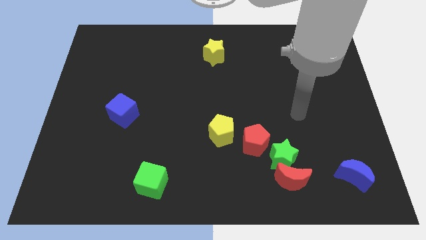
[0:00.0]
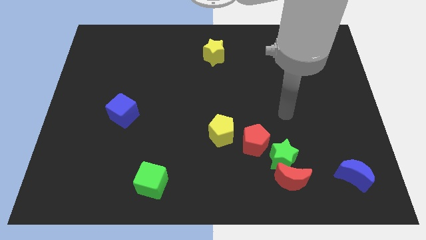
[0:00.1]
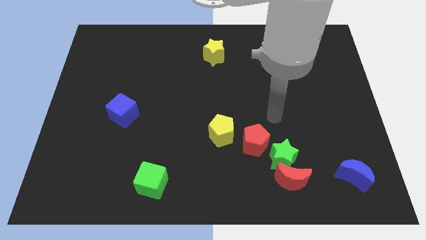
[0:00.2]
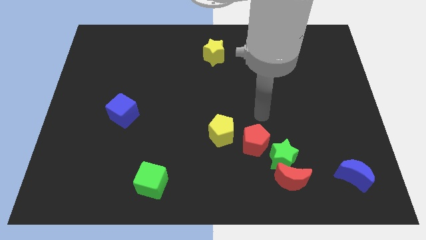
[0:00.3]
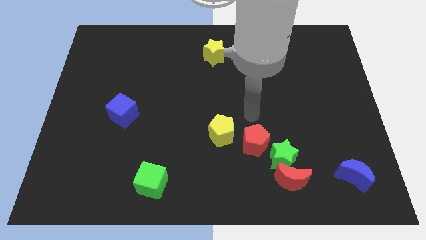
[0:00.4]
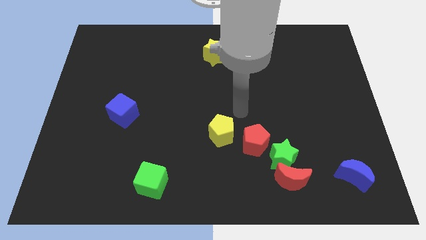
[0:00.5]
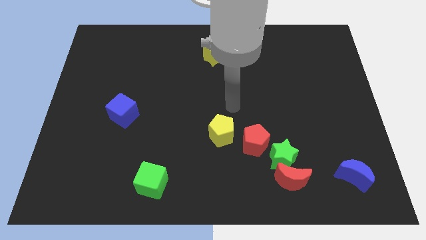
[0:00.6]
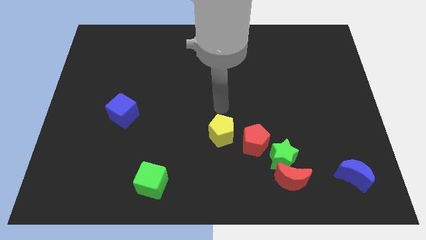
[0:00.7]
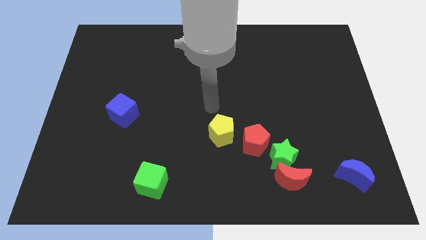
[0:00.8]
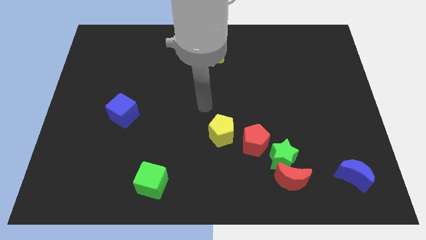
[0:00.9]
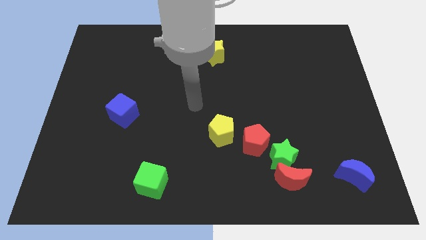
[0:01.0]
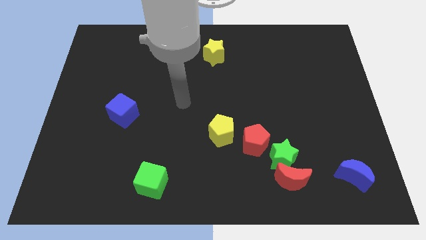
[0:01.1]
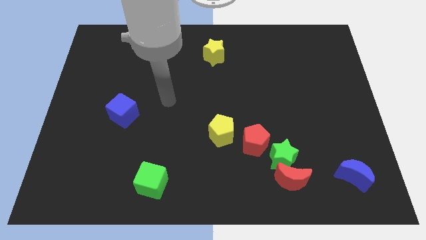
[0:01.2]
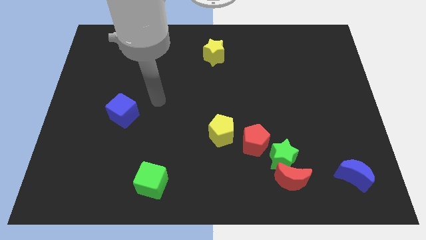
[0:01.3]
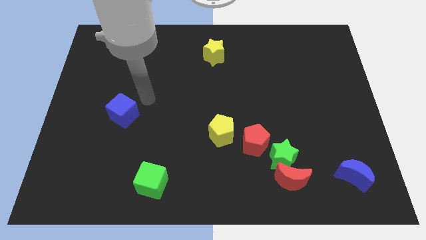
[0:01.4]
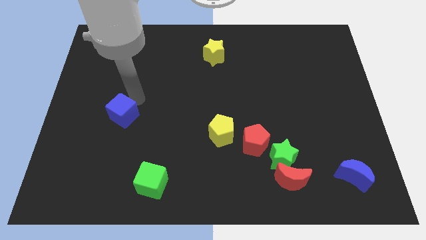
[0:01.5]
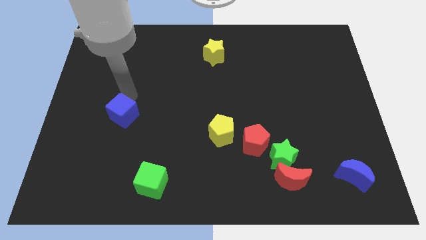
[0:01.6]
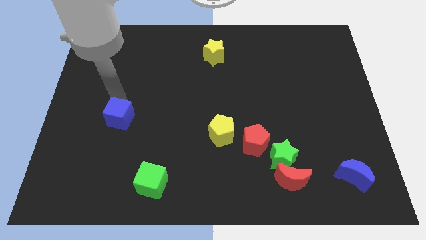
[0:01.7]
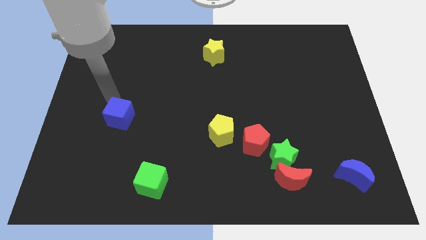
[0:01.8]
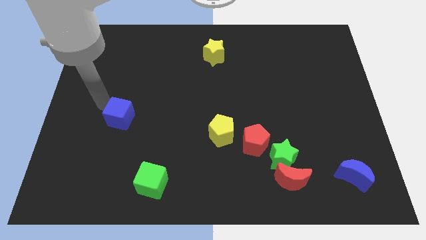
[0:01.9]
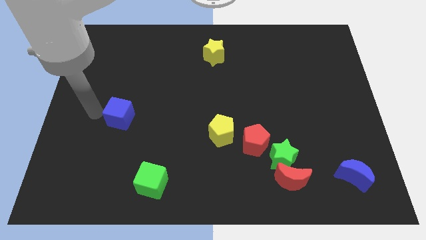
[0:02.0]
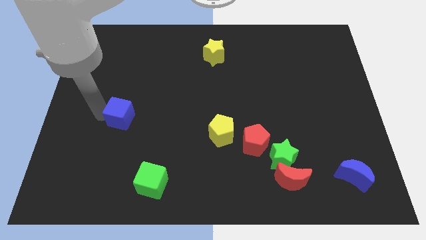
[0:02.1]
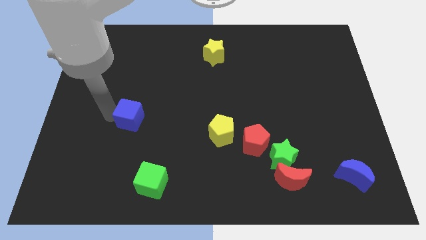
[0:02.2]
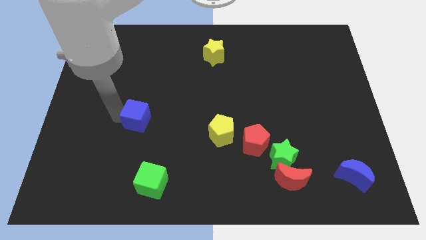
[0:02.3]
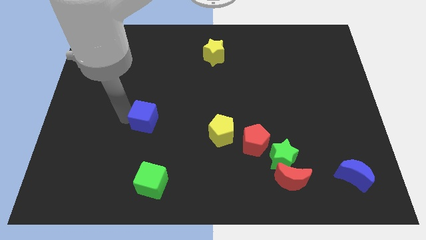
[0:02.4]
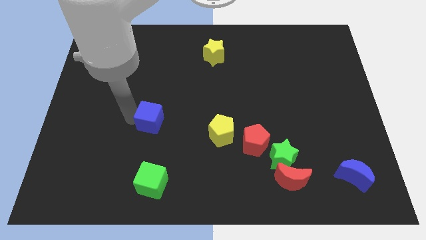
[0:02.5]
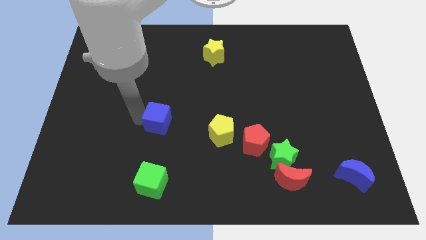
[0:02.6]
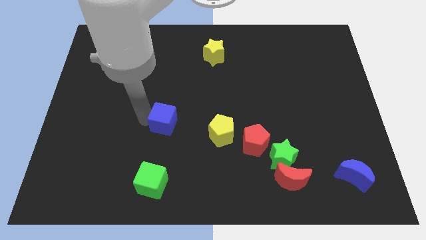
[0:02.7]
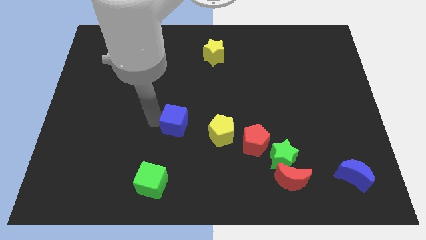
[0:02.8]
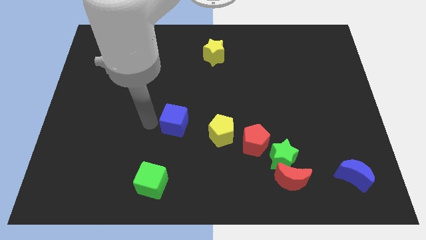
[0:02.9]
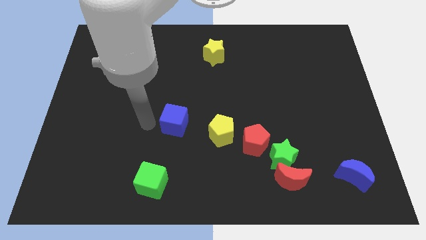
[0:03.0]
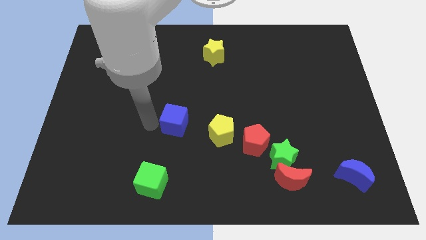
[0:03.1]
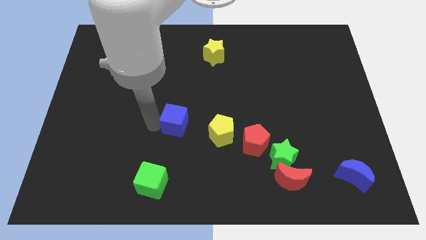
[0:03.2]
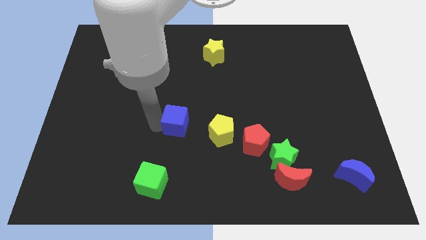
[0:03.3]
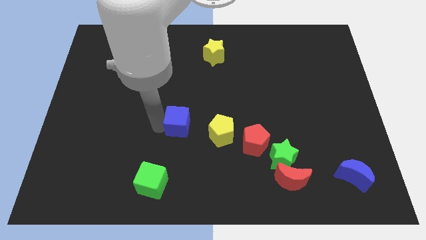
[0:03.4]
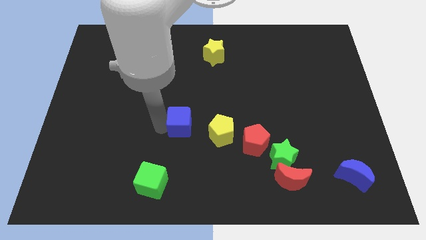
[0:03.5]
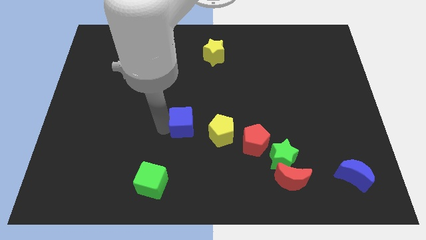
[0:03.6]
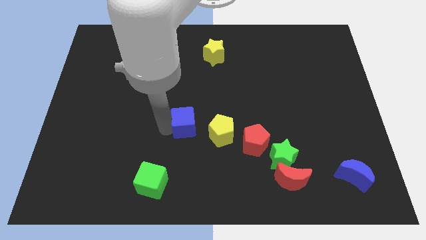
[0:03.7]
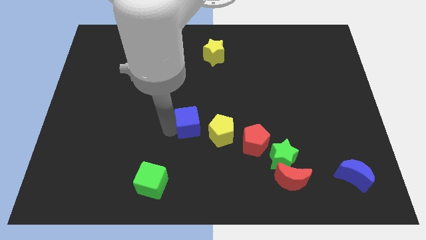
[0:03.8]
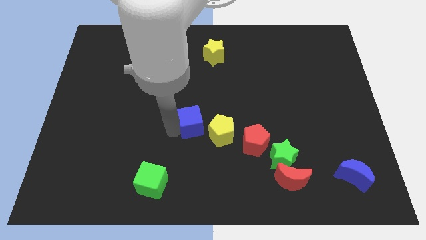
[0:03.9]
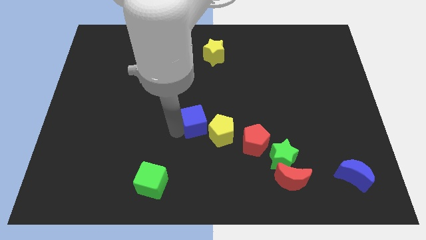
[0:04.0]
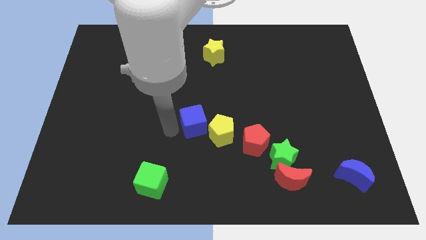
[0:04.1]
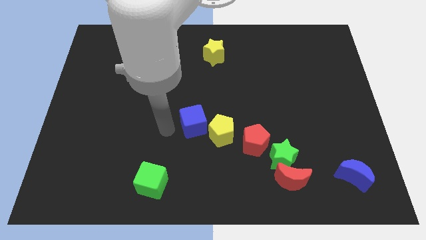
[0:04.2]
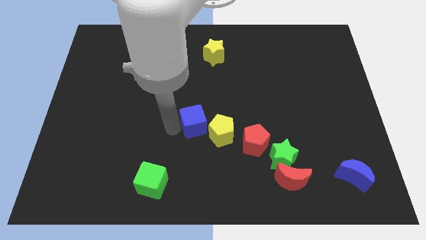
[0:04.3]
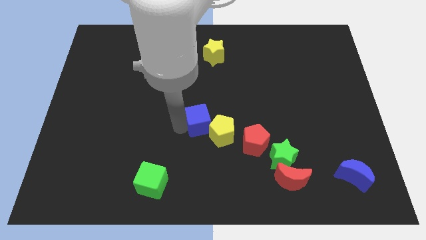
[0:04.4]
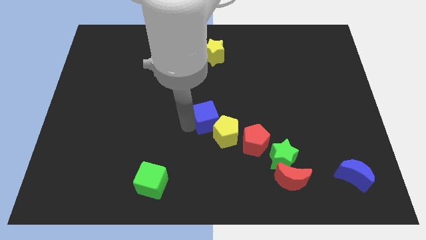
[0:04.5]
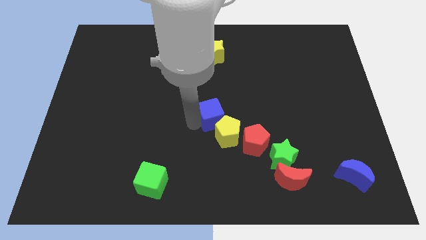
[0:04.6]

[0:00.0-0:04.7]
move the blue cube right

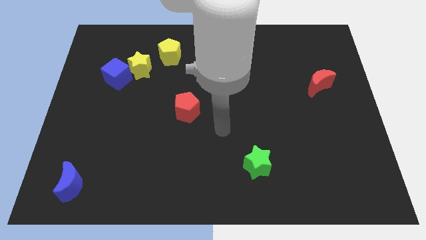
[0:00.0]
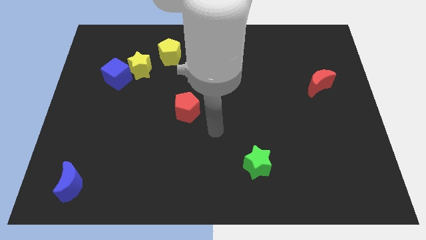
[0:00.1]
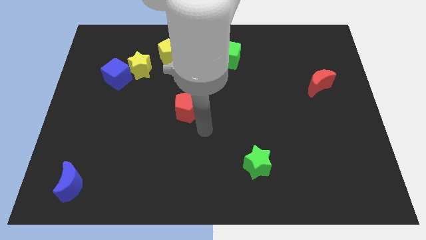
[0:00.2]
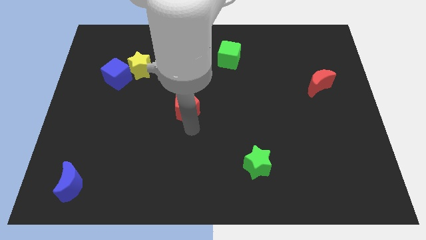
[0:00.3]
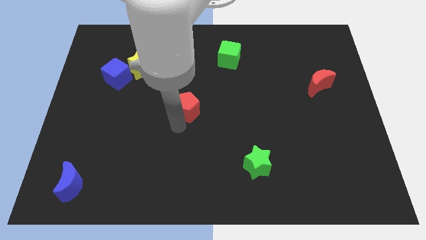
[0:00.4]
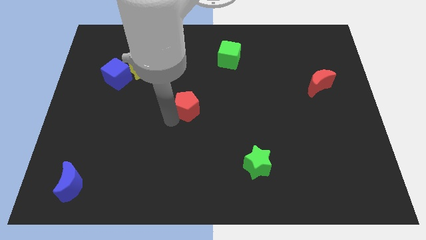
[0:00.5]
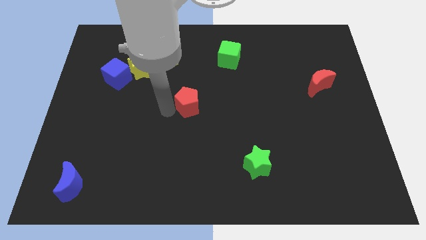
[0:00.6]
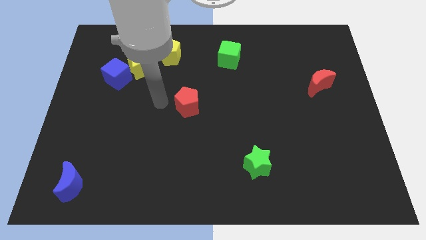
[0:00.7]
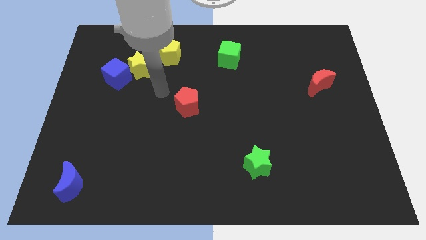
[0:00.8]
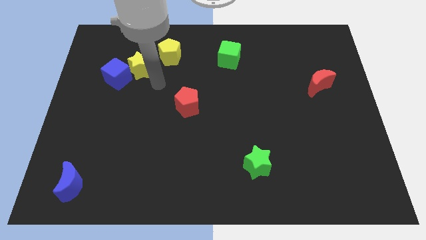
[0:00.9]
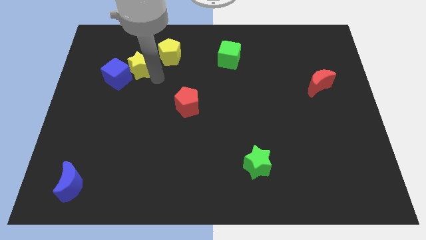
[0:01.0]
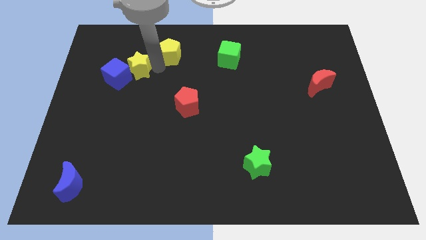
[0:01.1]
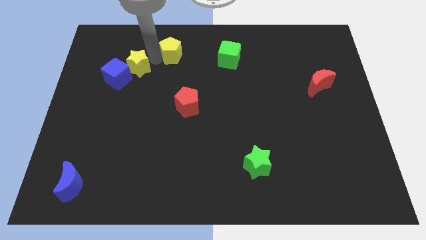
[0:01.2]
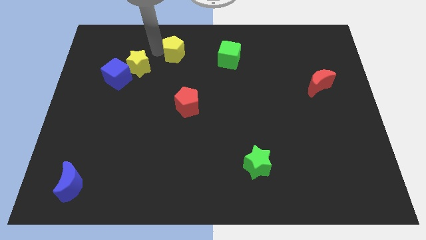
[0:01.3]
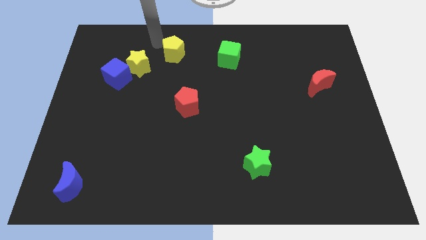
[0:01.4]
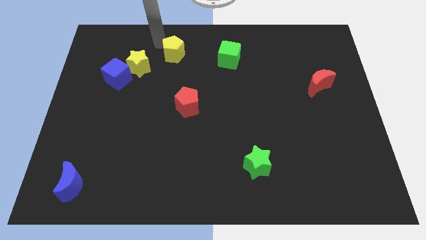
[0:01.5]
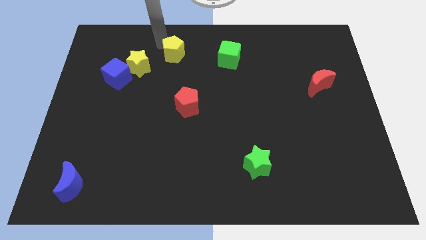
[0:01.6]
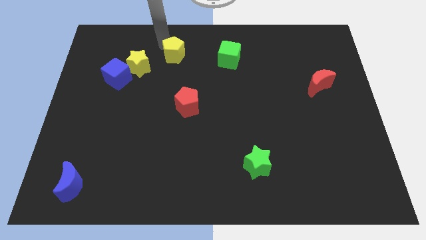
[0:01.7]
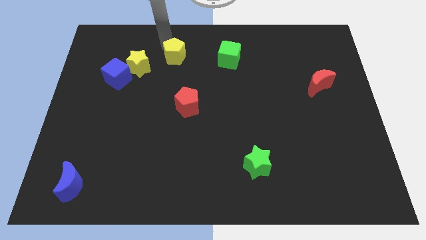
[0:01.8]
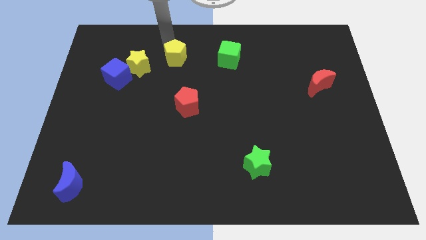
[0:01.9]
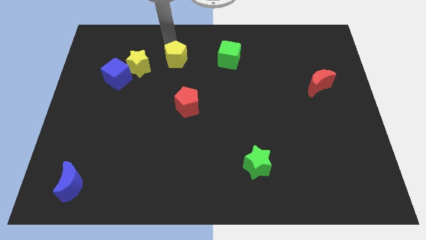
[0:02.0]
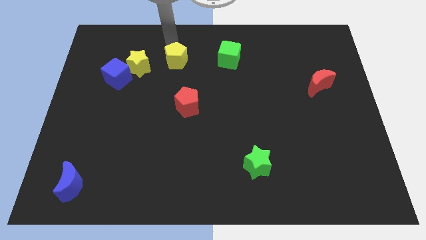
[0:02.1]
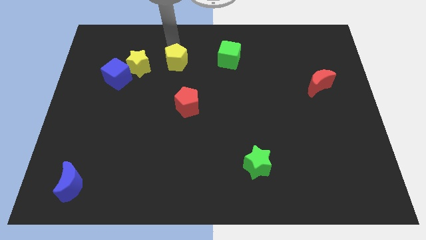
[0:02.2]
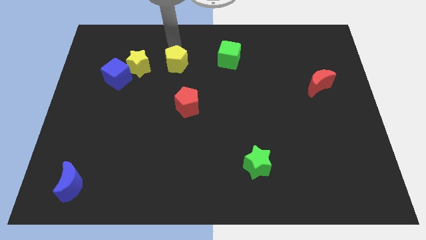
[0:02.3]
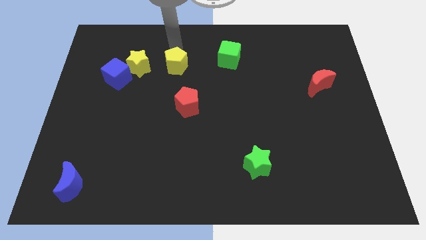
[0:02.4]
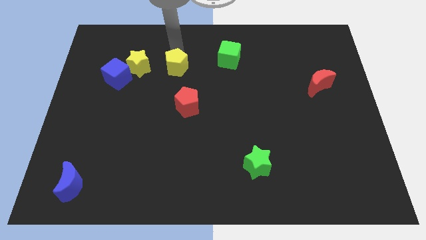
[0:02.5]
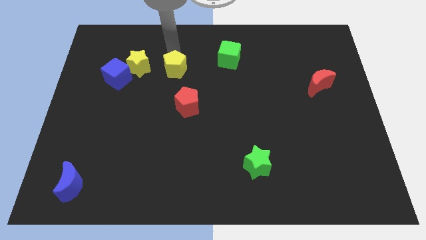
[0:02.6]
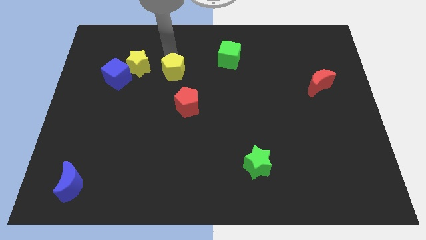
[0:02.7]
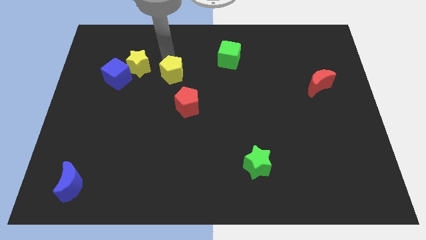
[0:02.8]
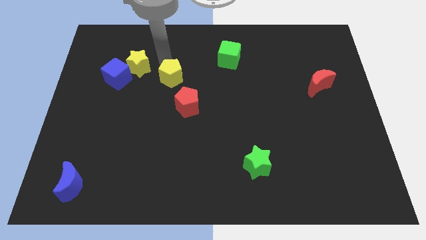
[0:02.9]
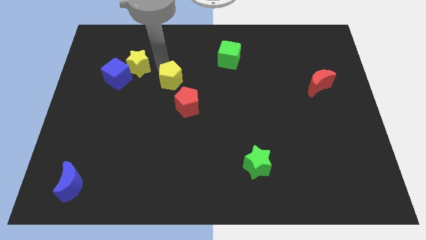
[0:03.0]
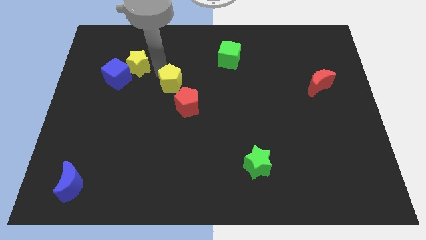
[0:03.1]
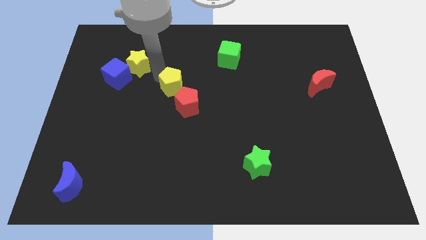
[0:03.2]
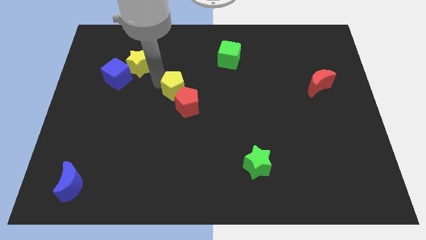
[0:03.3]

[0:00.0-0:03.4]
push the yellow pentagon downwards and right diagonally a little
